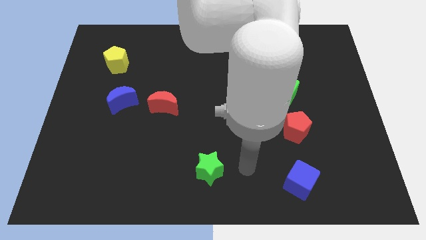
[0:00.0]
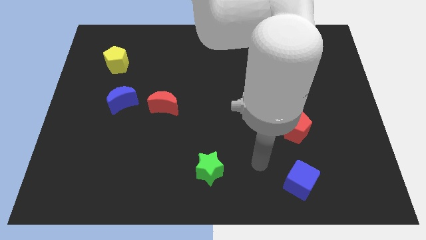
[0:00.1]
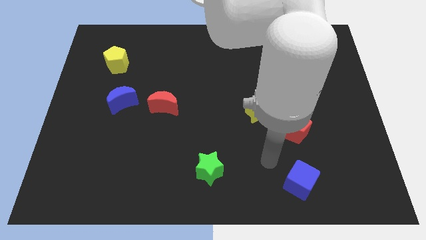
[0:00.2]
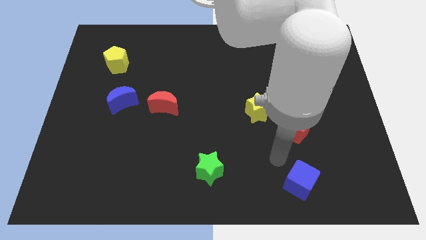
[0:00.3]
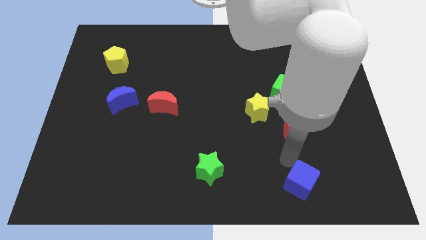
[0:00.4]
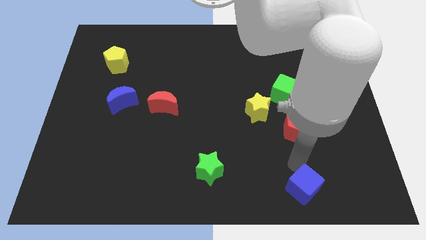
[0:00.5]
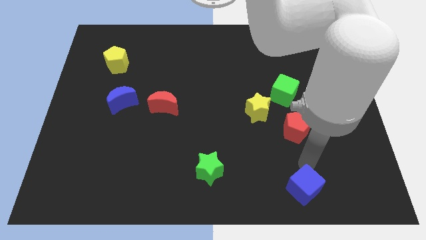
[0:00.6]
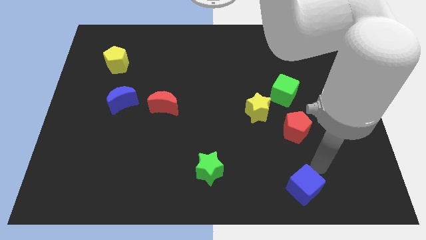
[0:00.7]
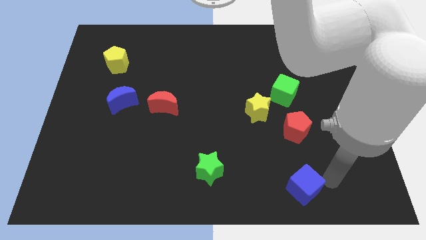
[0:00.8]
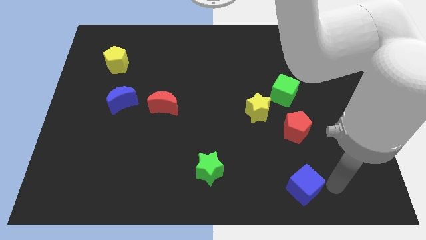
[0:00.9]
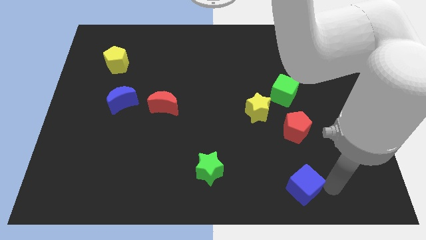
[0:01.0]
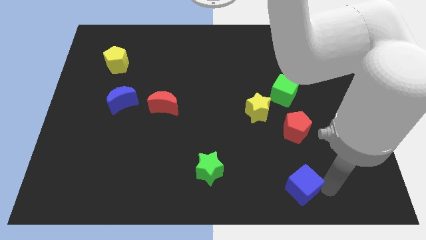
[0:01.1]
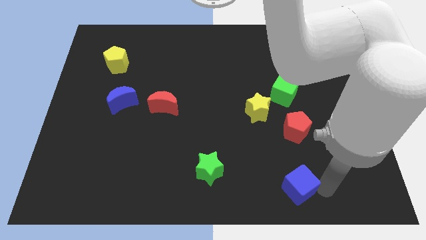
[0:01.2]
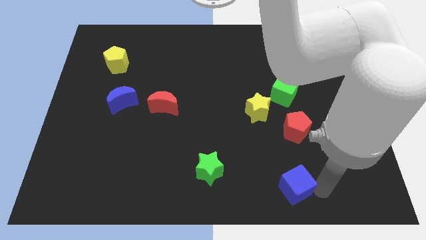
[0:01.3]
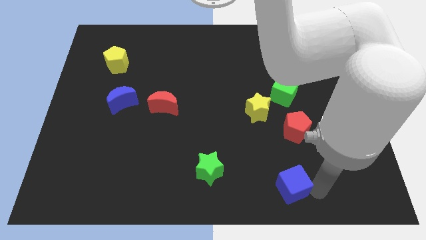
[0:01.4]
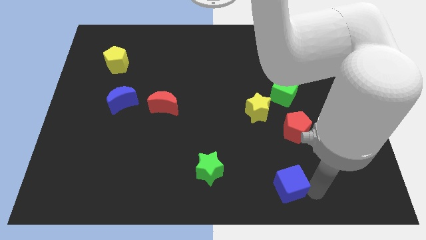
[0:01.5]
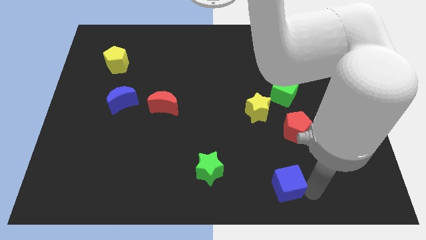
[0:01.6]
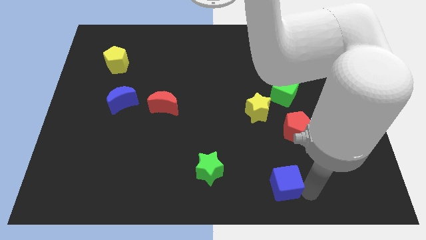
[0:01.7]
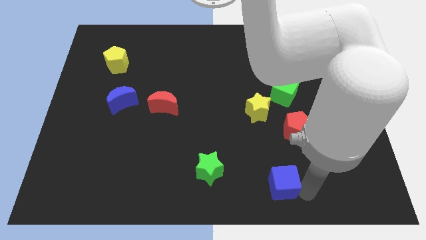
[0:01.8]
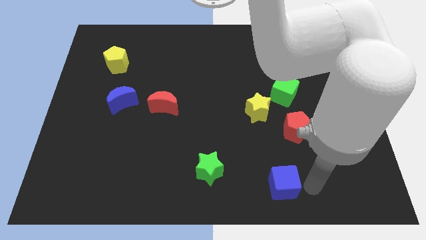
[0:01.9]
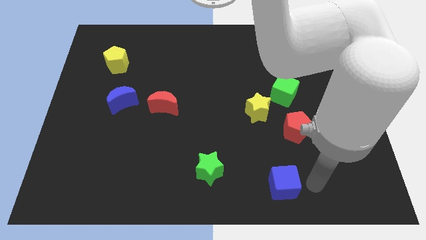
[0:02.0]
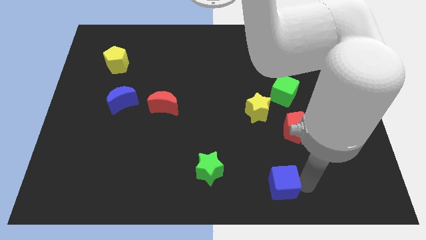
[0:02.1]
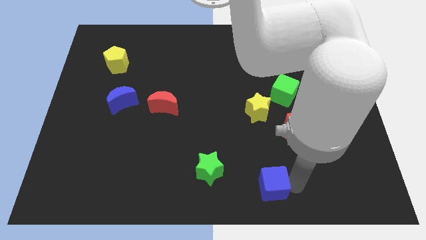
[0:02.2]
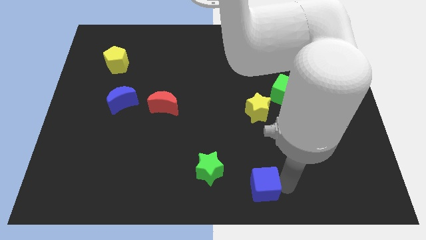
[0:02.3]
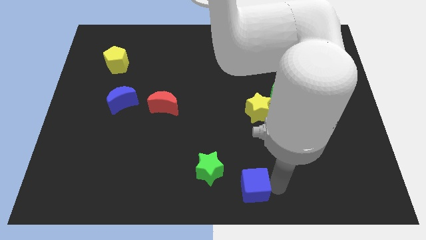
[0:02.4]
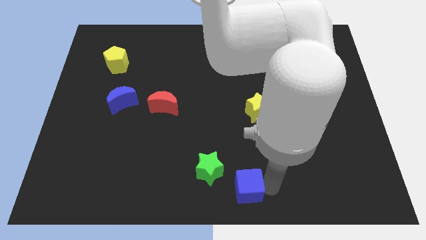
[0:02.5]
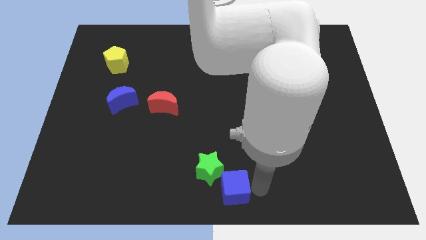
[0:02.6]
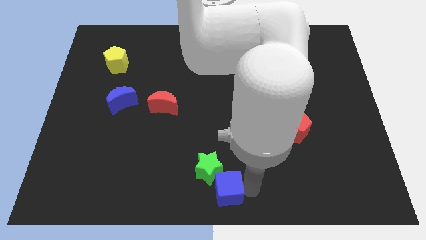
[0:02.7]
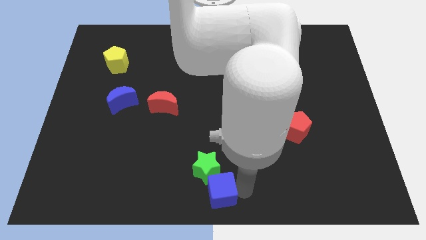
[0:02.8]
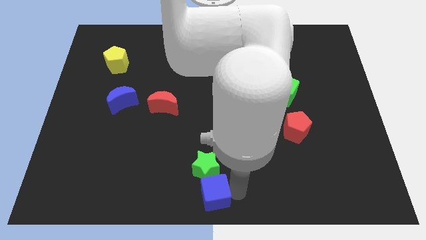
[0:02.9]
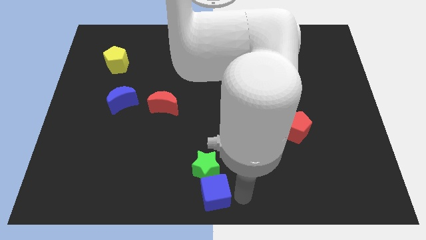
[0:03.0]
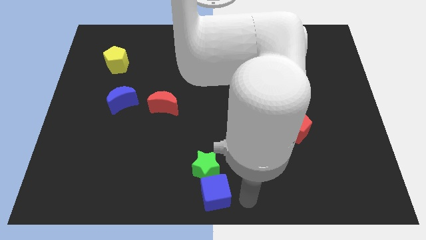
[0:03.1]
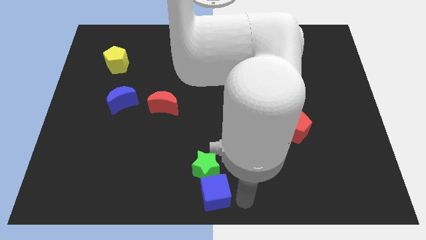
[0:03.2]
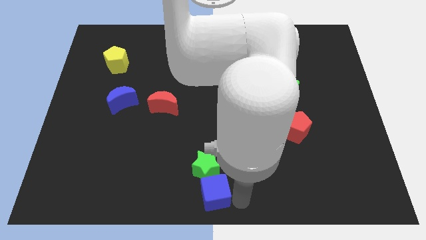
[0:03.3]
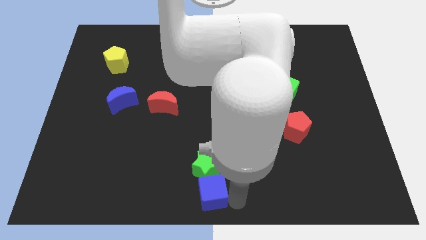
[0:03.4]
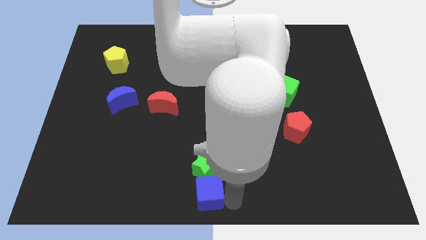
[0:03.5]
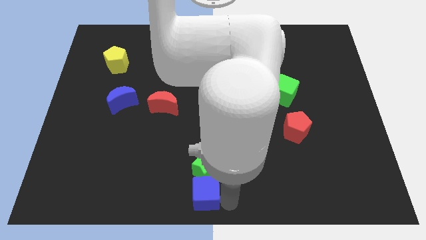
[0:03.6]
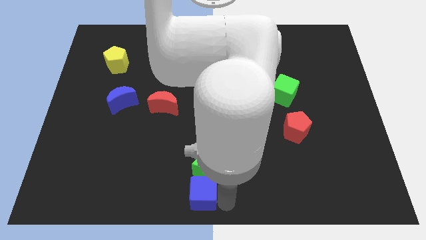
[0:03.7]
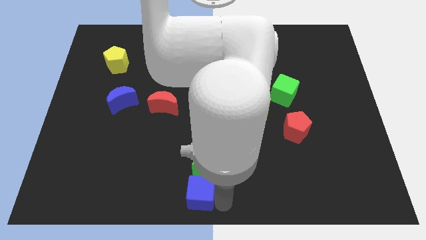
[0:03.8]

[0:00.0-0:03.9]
slide the blue cube left

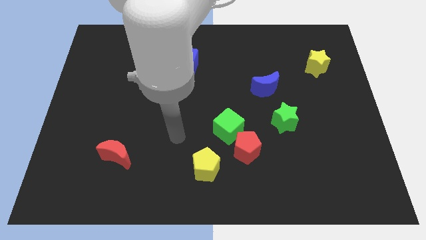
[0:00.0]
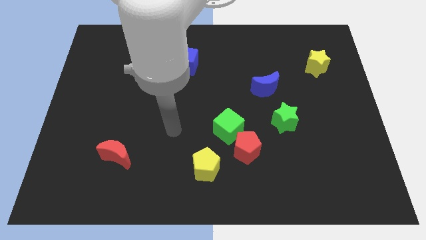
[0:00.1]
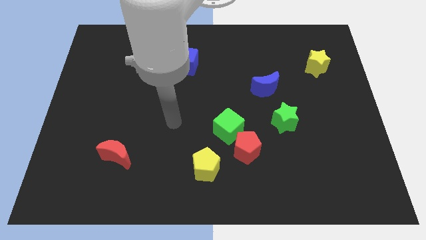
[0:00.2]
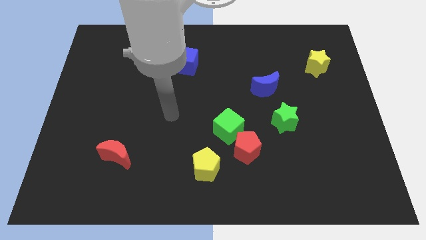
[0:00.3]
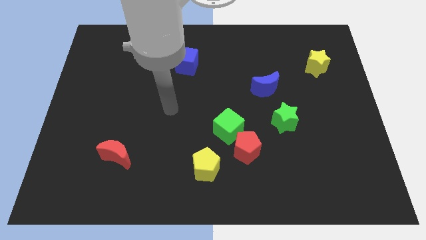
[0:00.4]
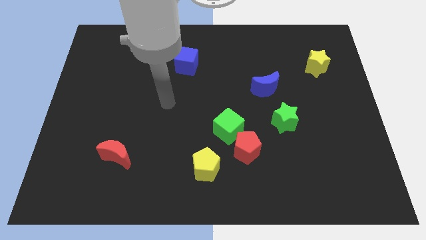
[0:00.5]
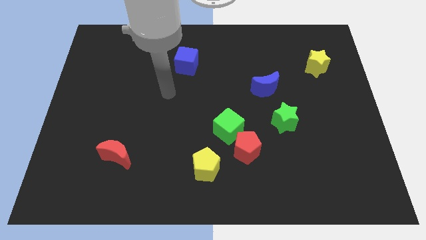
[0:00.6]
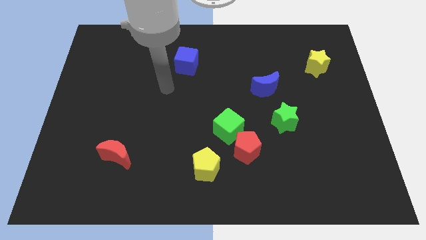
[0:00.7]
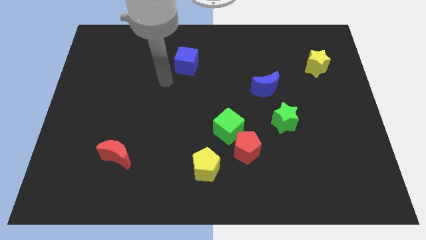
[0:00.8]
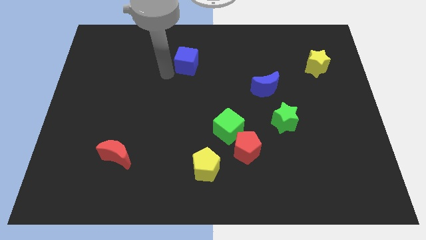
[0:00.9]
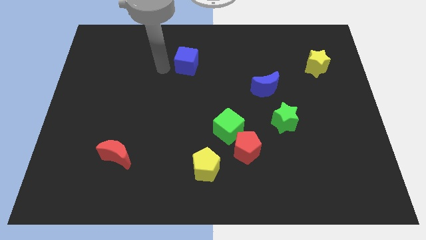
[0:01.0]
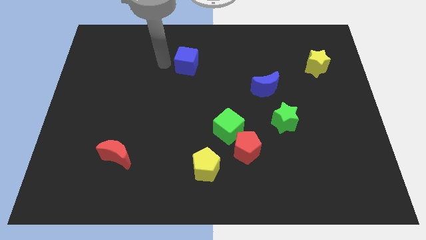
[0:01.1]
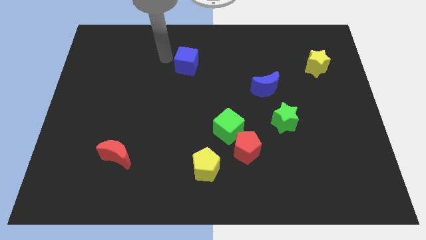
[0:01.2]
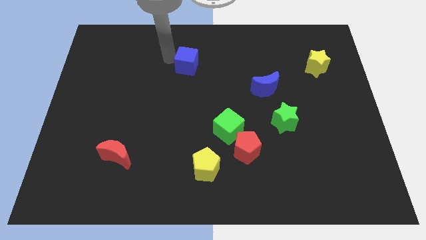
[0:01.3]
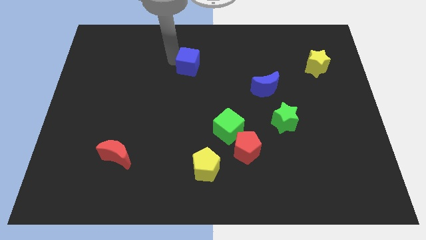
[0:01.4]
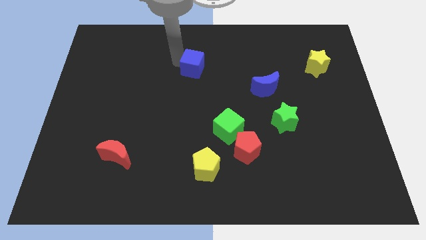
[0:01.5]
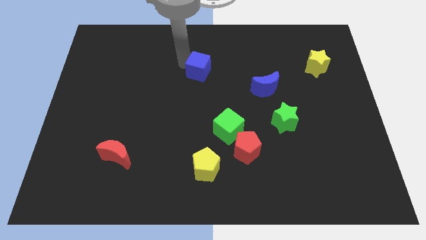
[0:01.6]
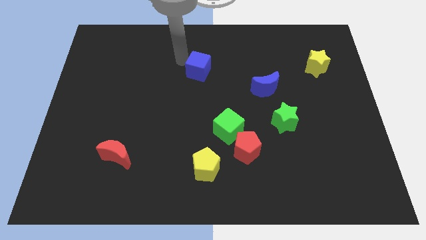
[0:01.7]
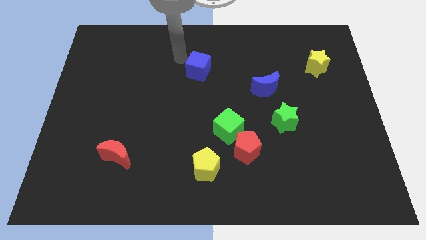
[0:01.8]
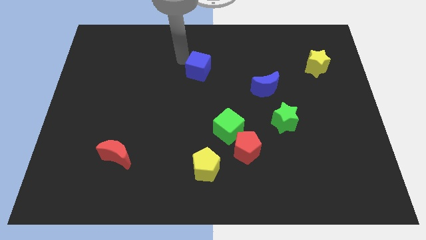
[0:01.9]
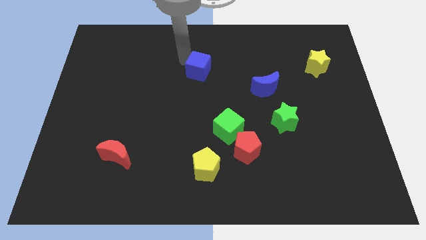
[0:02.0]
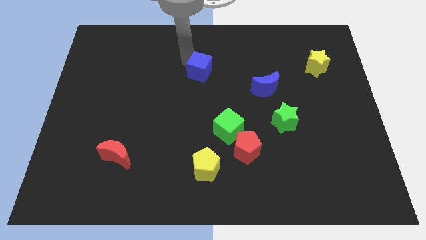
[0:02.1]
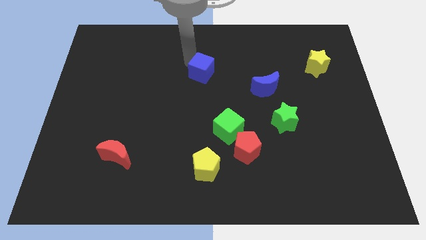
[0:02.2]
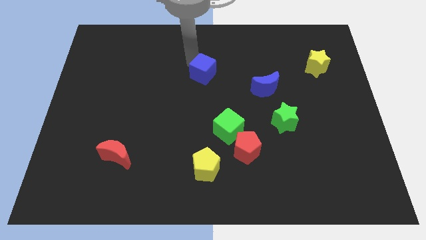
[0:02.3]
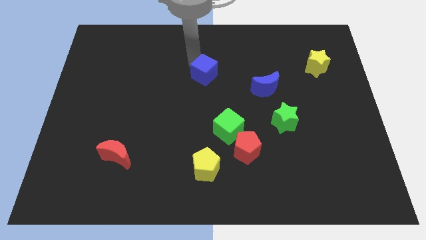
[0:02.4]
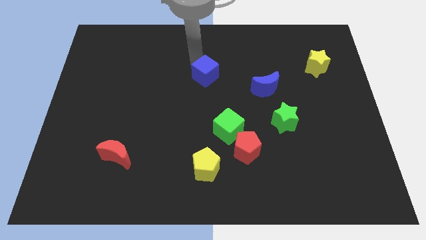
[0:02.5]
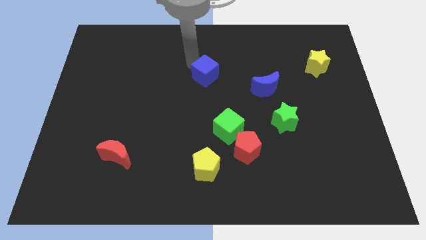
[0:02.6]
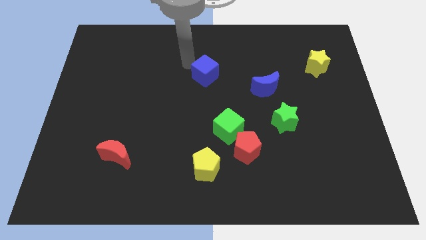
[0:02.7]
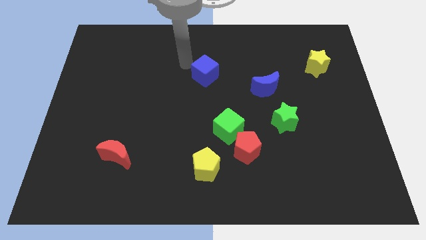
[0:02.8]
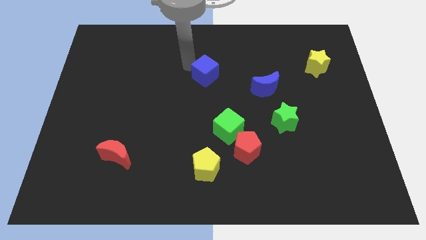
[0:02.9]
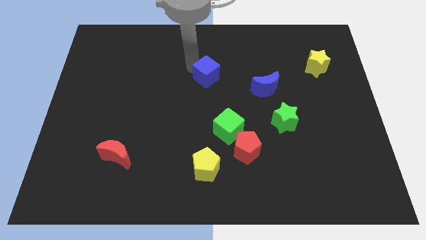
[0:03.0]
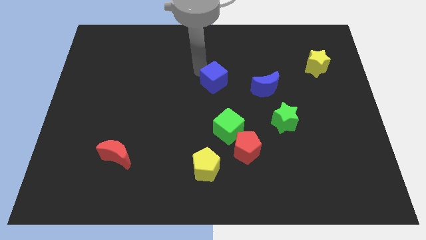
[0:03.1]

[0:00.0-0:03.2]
move the blue cube downwards and right a little

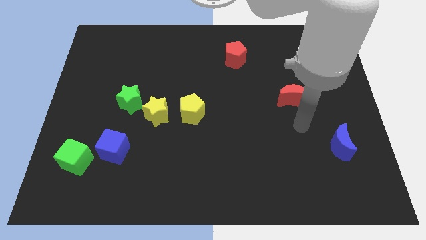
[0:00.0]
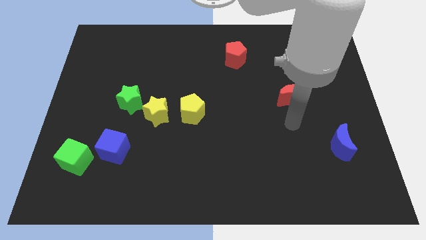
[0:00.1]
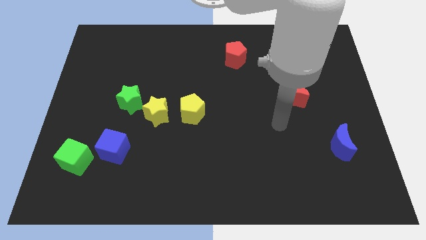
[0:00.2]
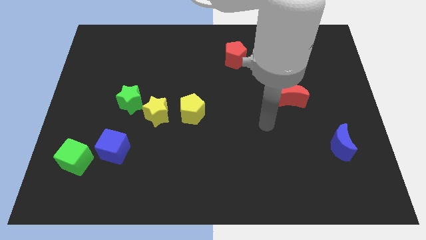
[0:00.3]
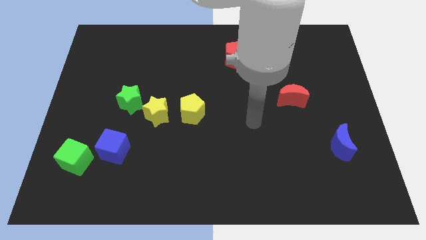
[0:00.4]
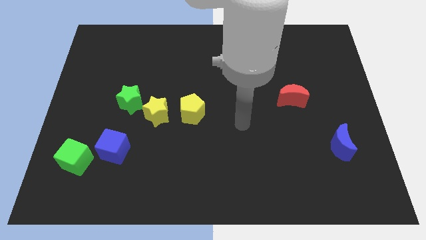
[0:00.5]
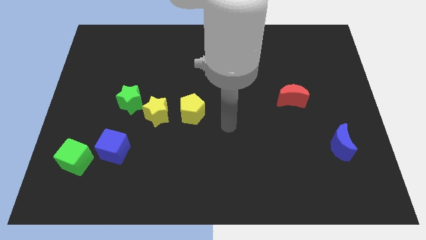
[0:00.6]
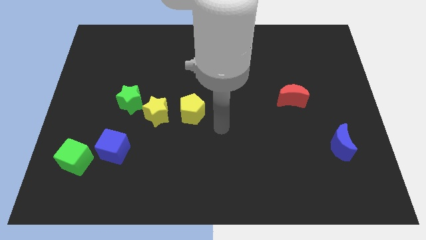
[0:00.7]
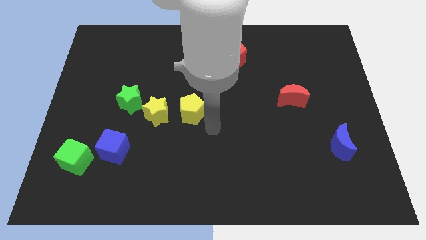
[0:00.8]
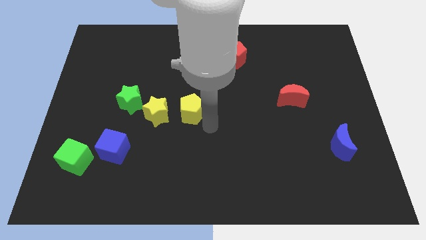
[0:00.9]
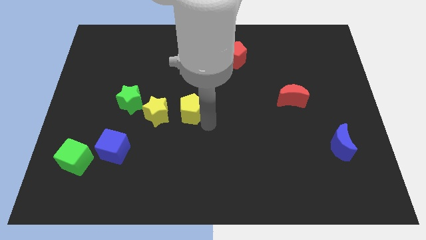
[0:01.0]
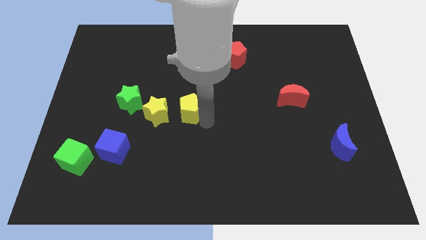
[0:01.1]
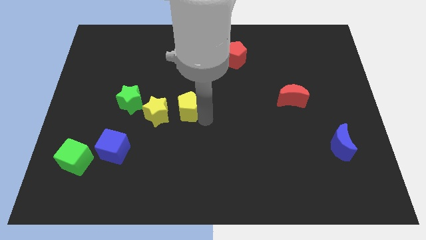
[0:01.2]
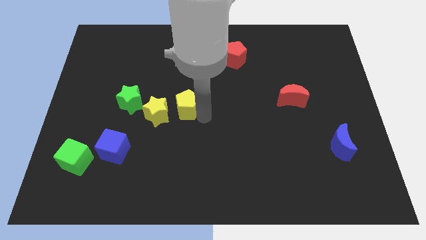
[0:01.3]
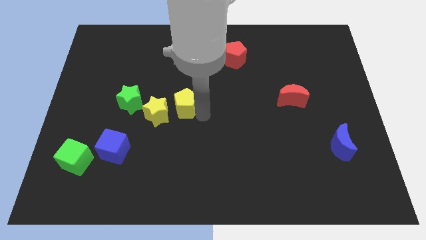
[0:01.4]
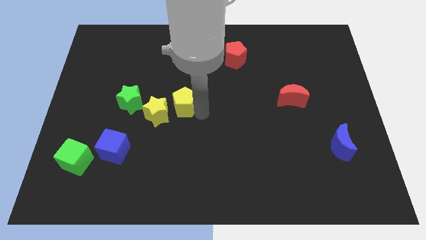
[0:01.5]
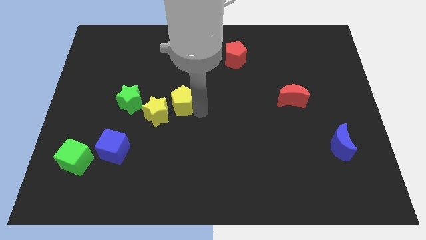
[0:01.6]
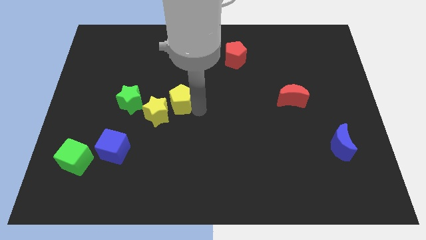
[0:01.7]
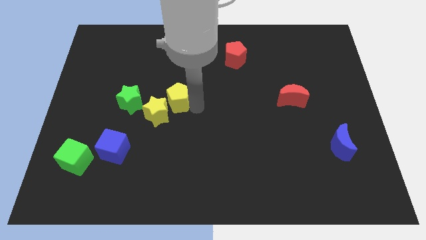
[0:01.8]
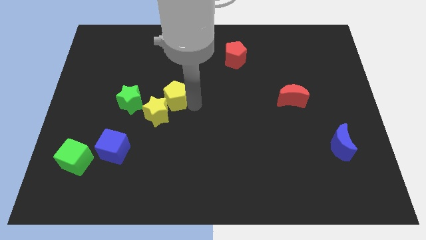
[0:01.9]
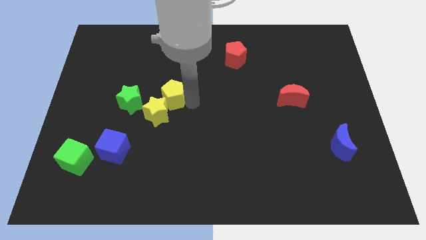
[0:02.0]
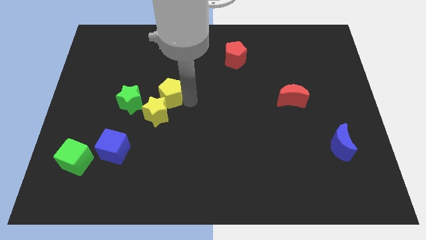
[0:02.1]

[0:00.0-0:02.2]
push the yellow pentagon slightly up and then left
